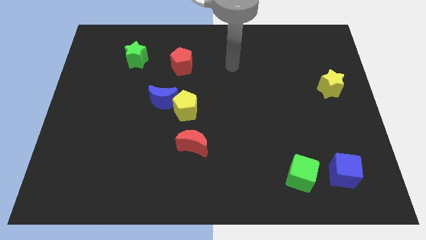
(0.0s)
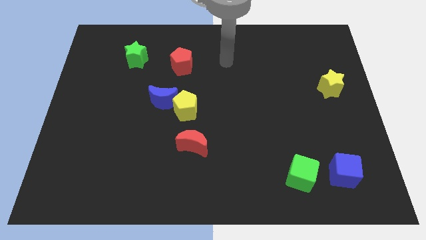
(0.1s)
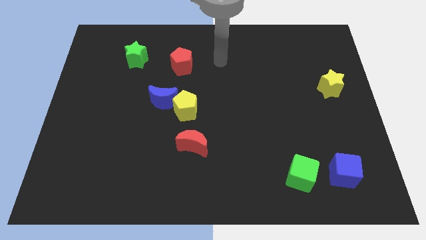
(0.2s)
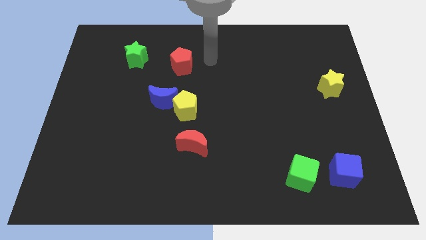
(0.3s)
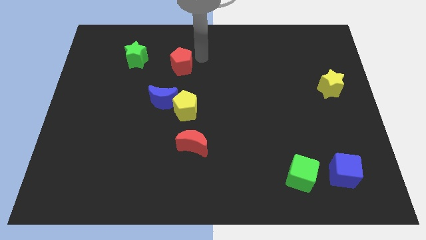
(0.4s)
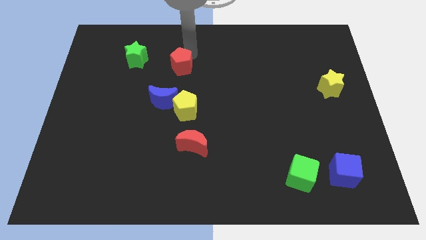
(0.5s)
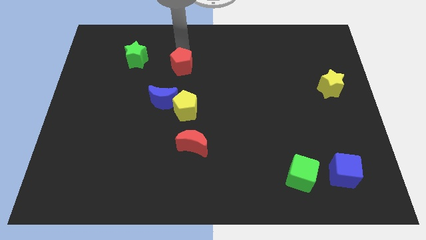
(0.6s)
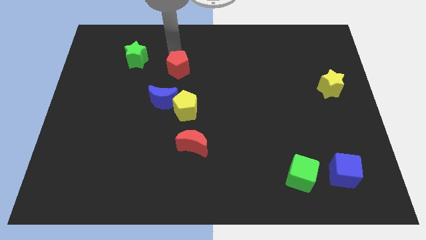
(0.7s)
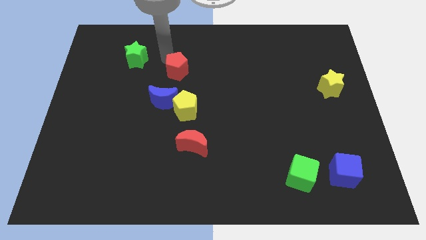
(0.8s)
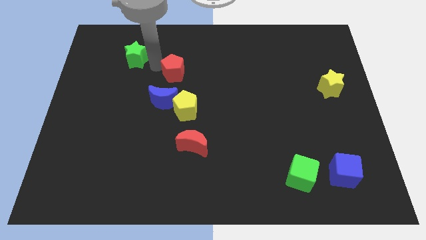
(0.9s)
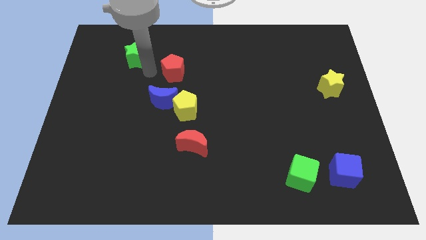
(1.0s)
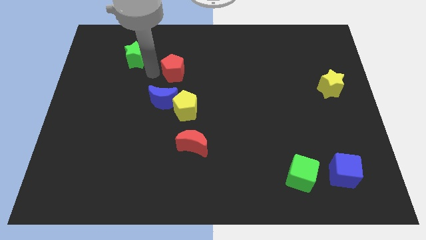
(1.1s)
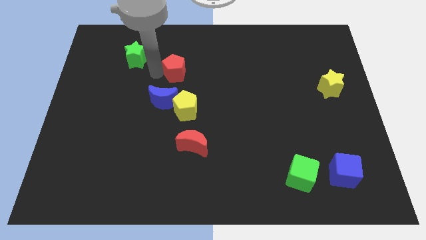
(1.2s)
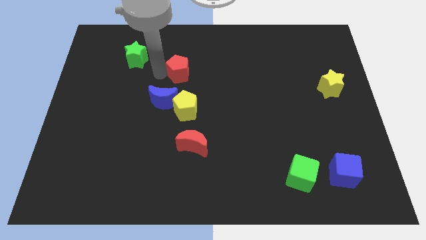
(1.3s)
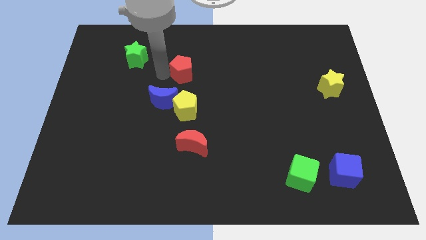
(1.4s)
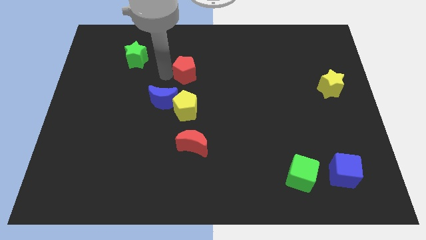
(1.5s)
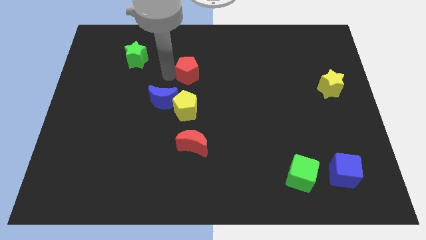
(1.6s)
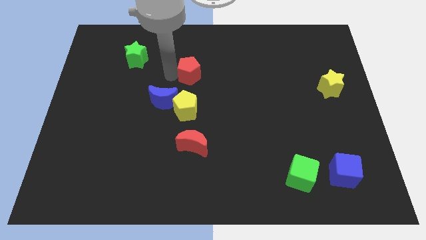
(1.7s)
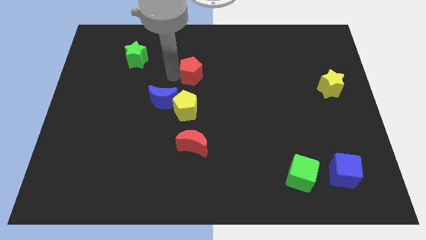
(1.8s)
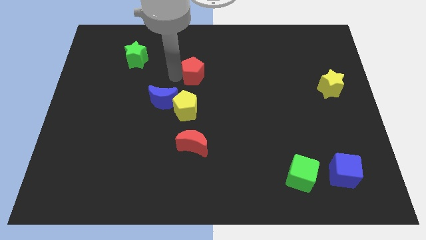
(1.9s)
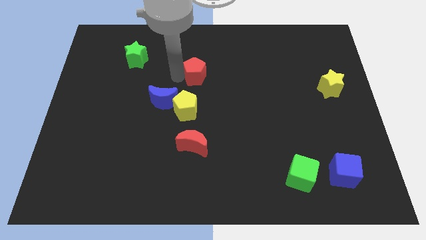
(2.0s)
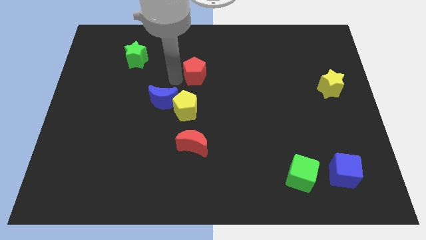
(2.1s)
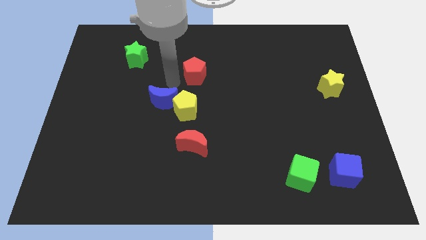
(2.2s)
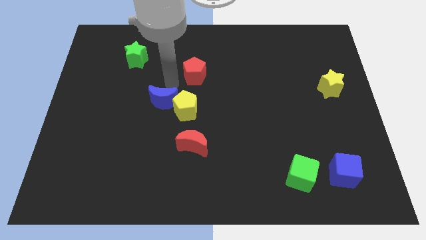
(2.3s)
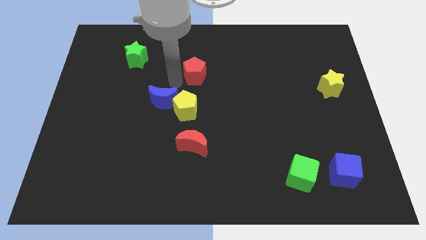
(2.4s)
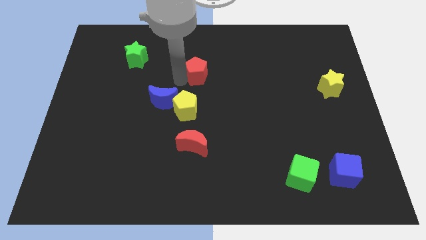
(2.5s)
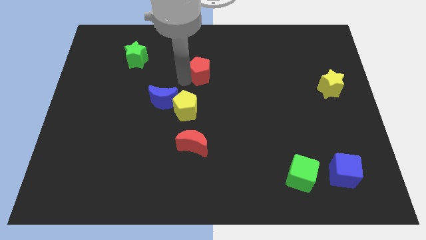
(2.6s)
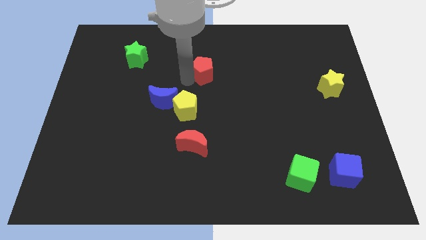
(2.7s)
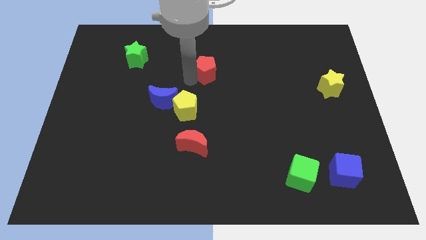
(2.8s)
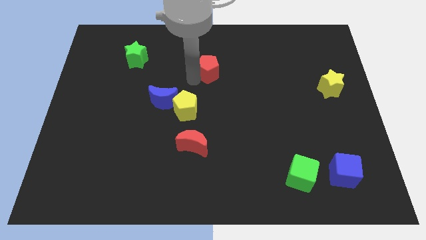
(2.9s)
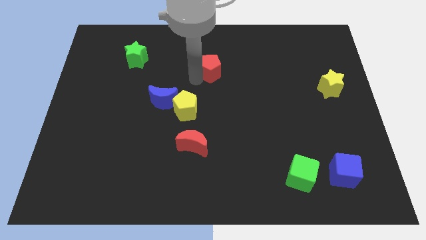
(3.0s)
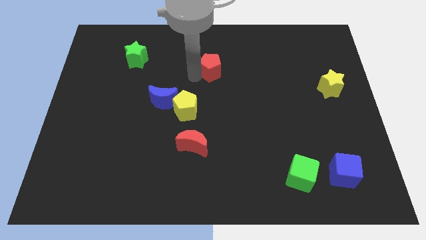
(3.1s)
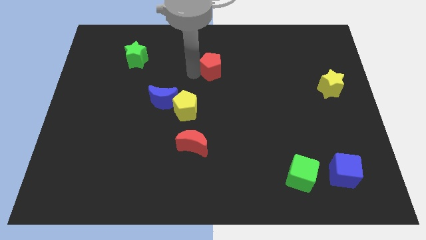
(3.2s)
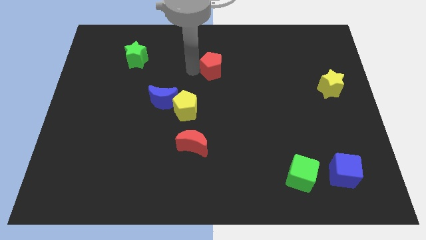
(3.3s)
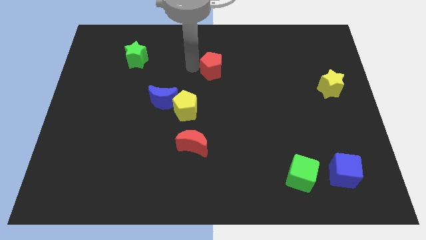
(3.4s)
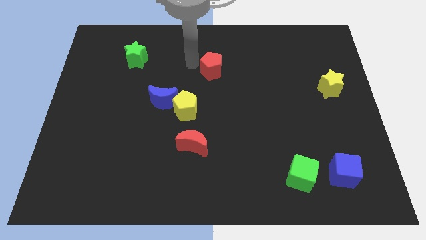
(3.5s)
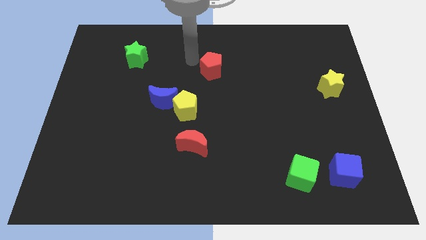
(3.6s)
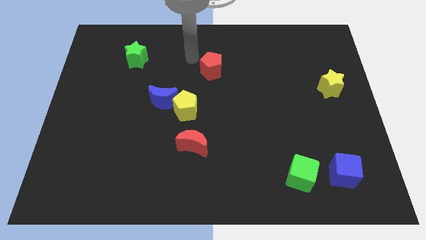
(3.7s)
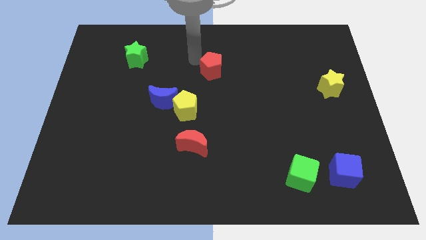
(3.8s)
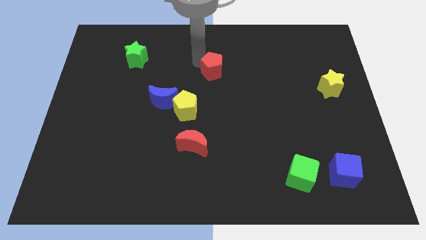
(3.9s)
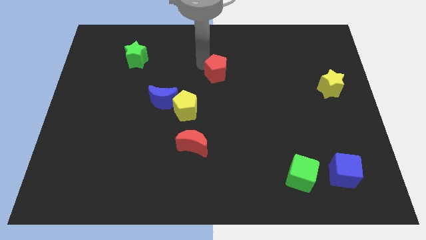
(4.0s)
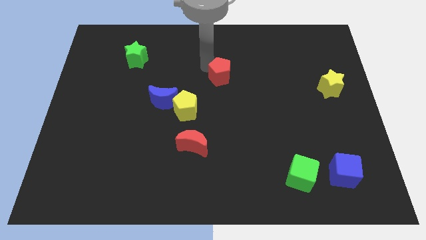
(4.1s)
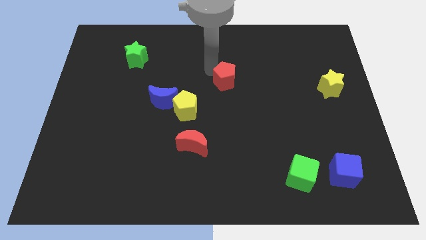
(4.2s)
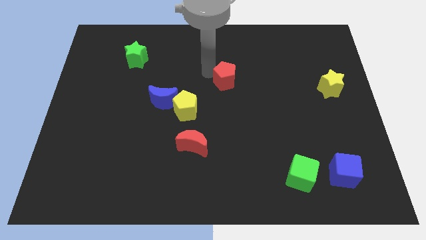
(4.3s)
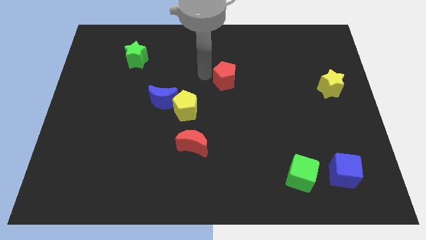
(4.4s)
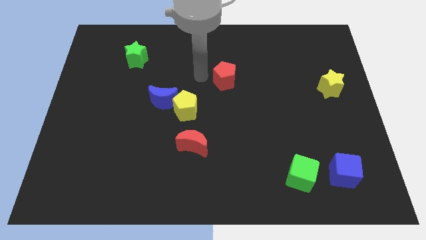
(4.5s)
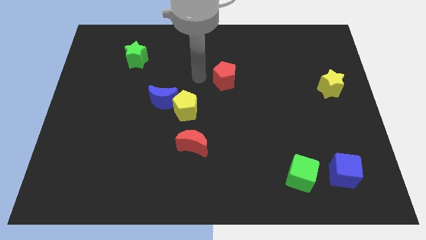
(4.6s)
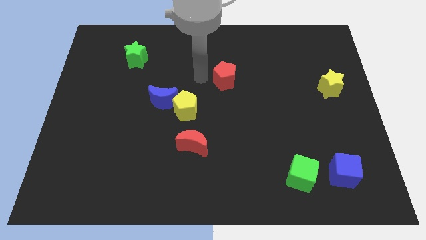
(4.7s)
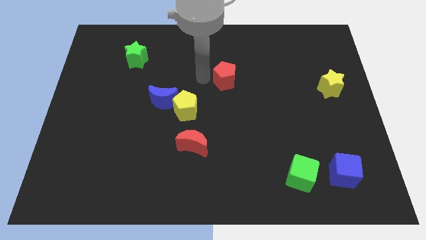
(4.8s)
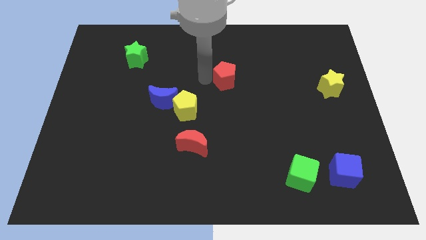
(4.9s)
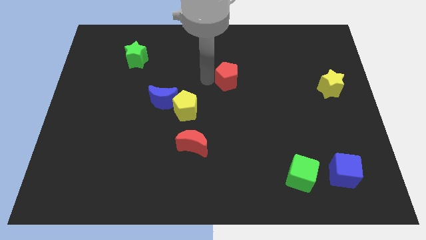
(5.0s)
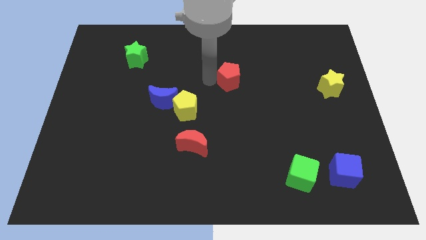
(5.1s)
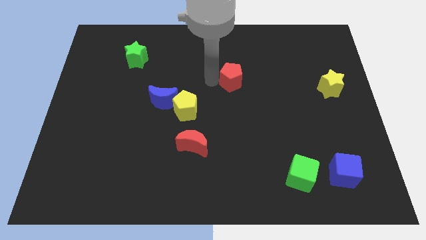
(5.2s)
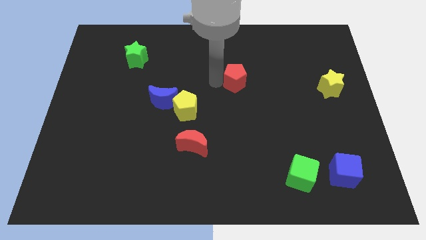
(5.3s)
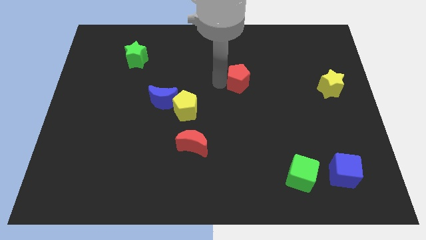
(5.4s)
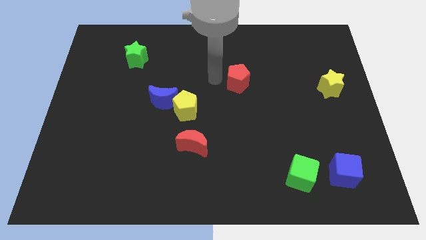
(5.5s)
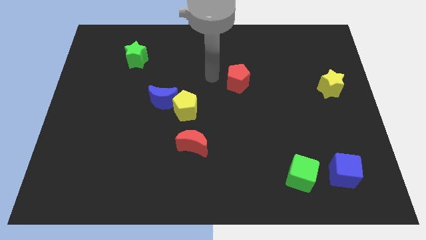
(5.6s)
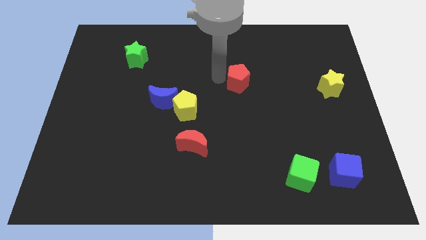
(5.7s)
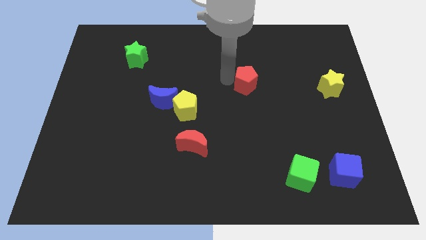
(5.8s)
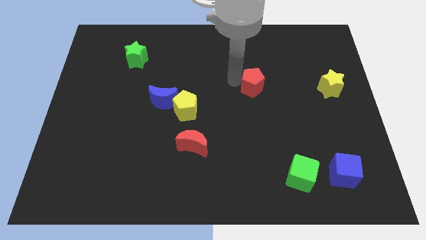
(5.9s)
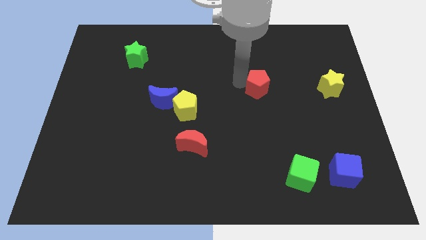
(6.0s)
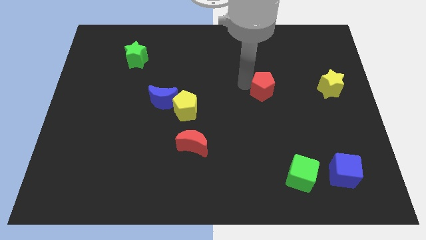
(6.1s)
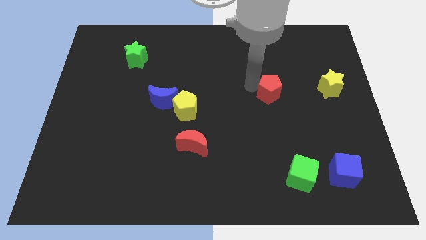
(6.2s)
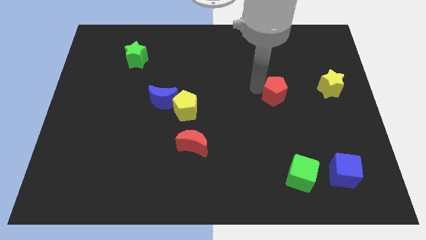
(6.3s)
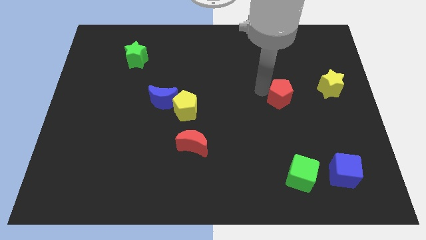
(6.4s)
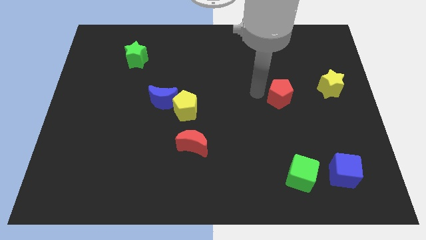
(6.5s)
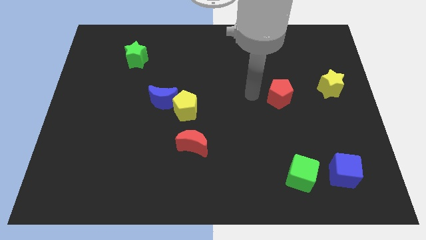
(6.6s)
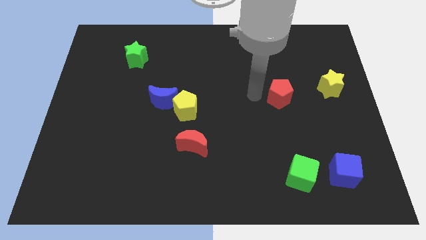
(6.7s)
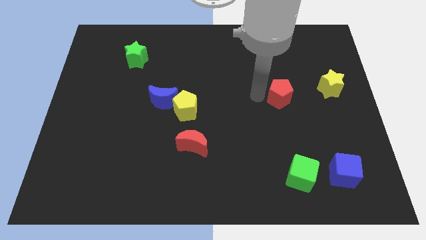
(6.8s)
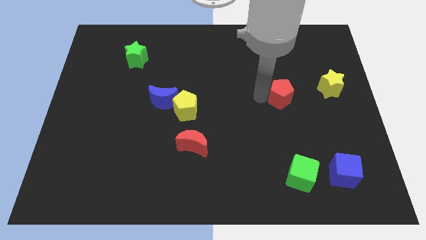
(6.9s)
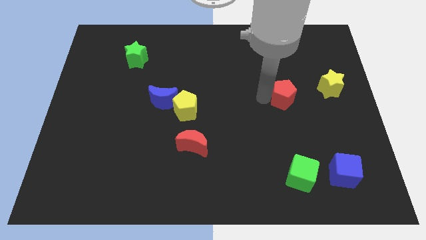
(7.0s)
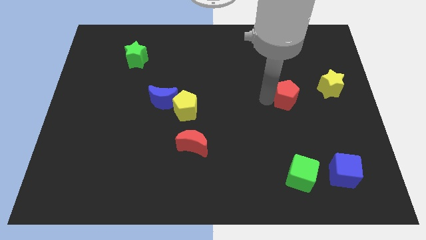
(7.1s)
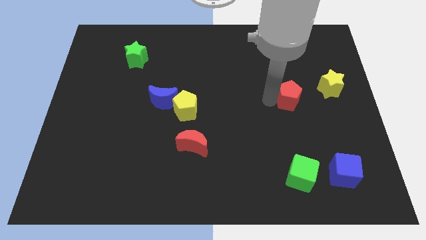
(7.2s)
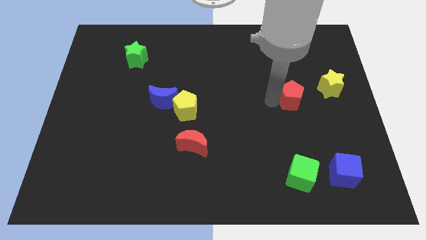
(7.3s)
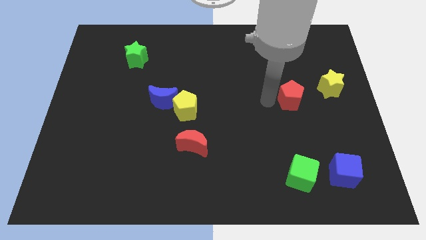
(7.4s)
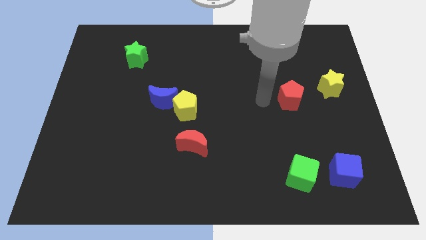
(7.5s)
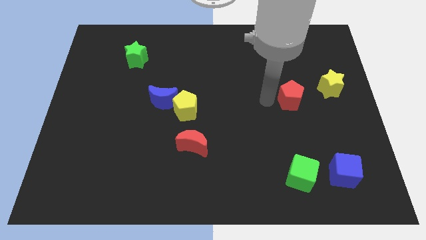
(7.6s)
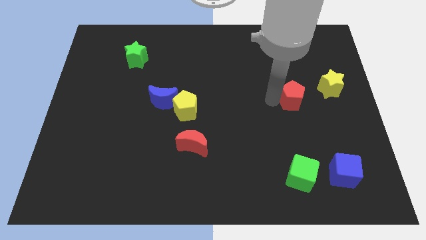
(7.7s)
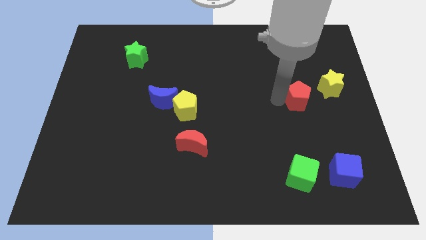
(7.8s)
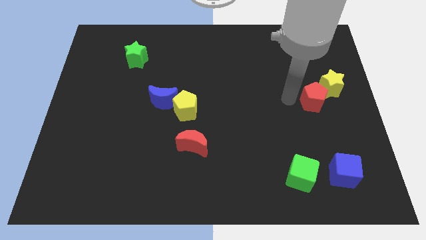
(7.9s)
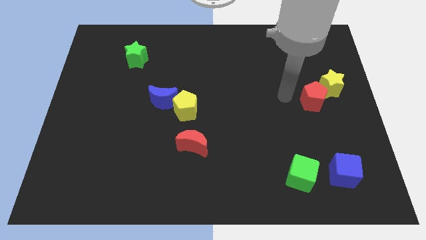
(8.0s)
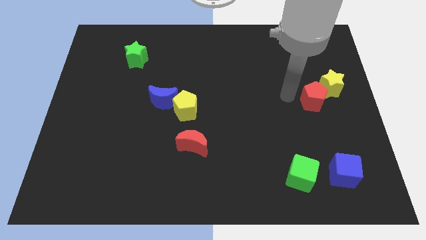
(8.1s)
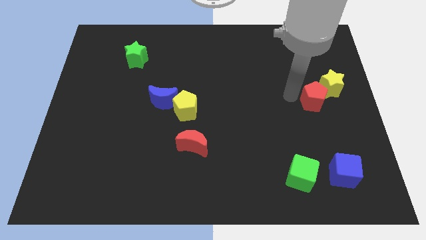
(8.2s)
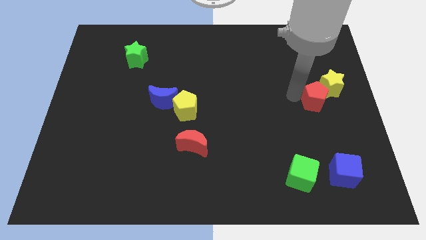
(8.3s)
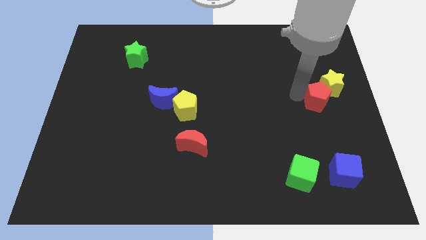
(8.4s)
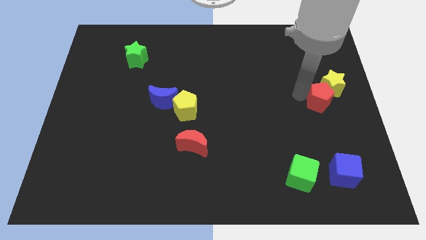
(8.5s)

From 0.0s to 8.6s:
push the red pentagon to the center right
